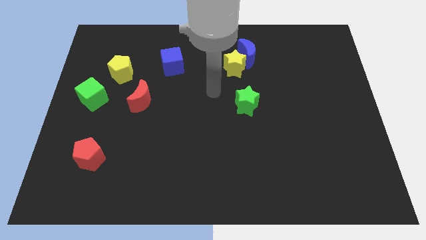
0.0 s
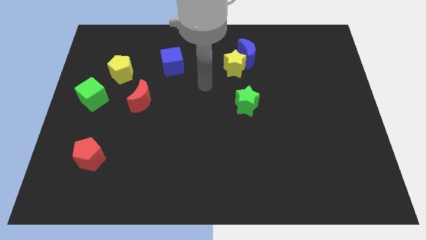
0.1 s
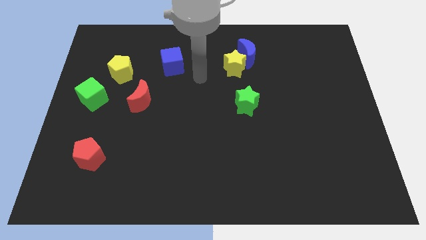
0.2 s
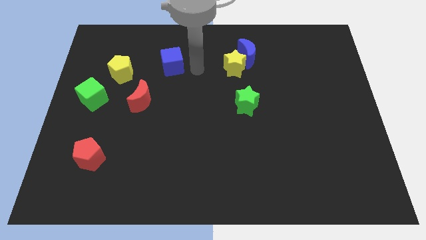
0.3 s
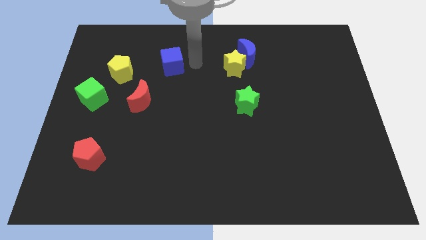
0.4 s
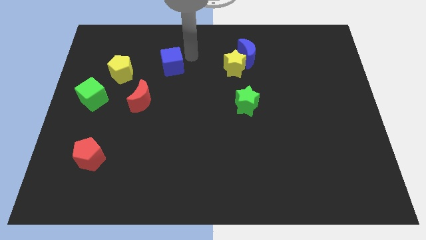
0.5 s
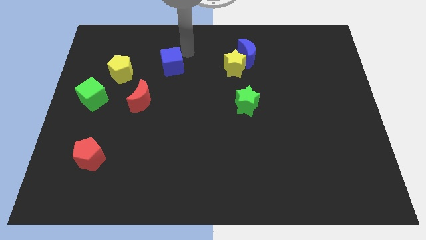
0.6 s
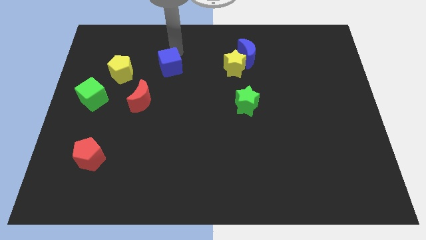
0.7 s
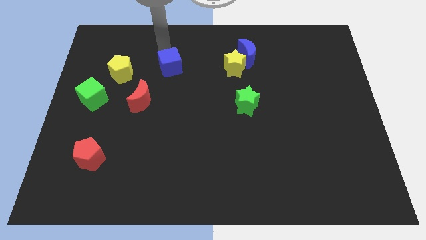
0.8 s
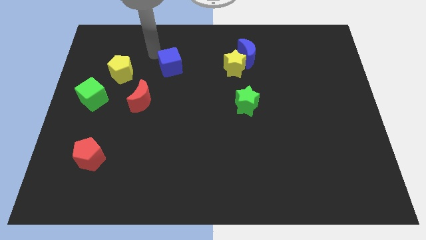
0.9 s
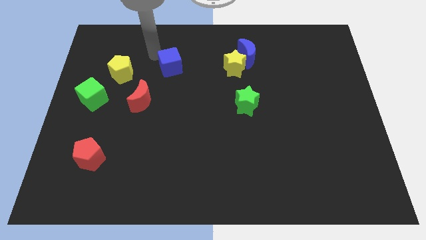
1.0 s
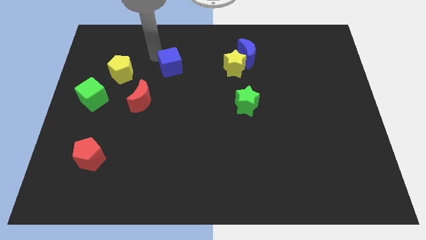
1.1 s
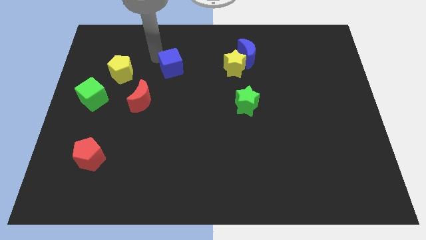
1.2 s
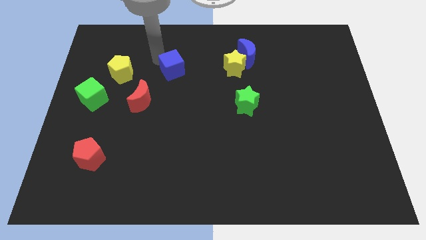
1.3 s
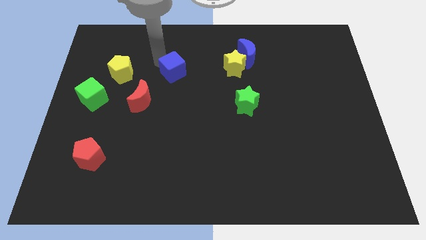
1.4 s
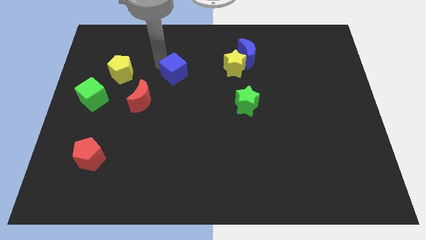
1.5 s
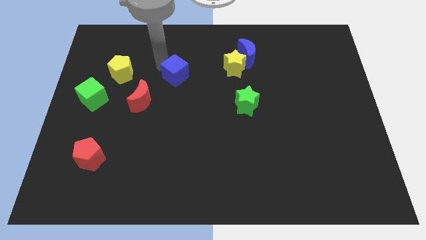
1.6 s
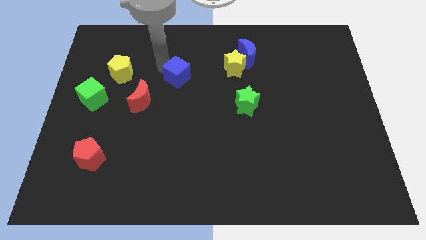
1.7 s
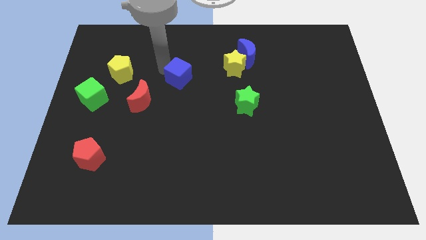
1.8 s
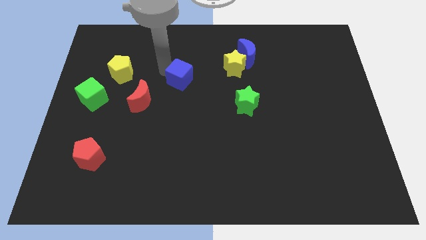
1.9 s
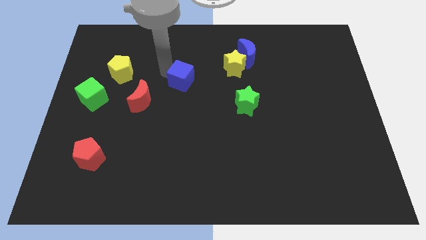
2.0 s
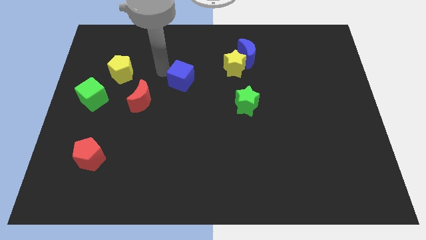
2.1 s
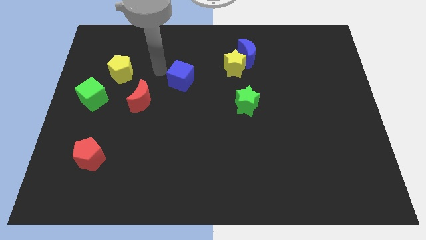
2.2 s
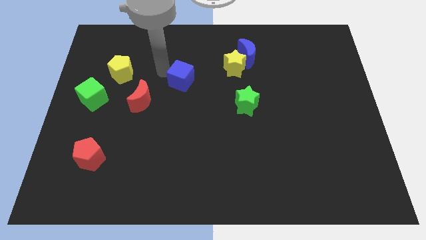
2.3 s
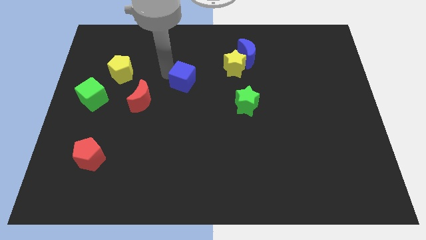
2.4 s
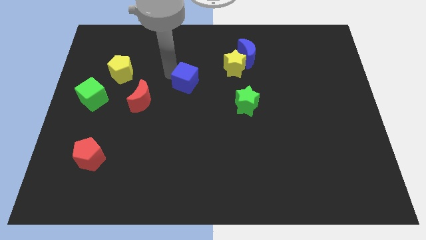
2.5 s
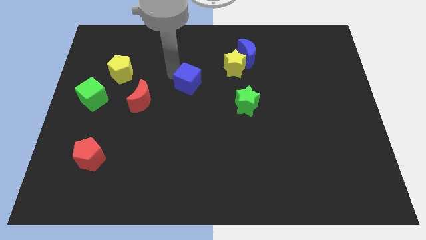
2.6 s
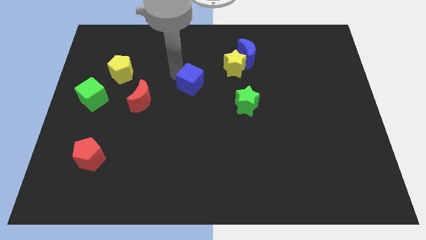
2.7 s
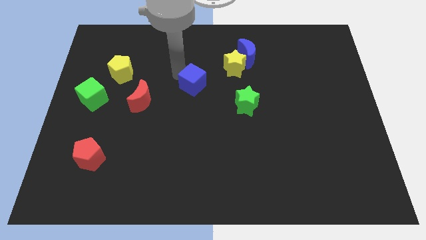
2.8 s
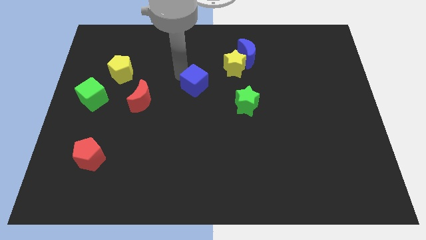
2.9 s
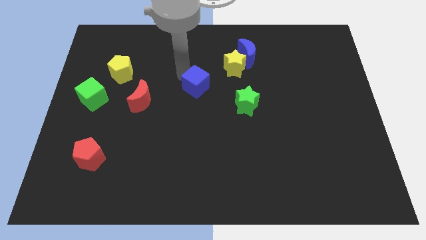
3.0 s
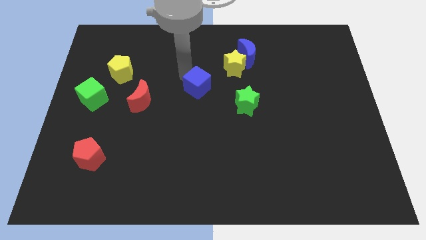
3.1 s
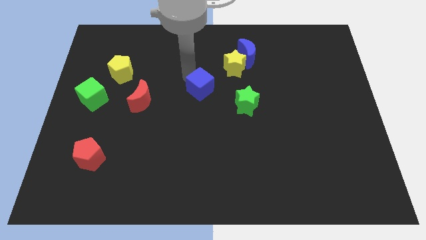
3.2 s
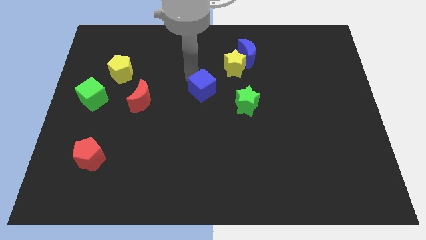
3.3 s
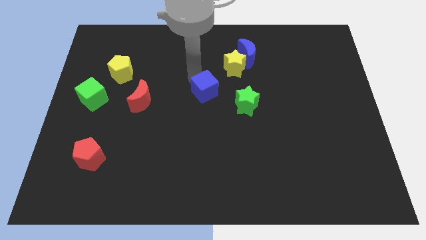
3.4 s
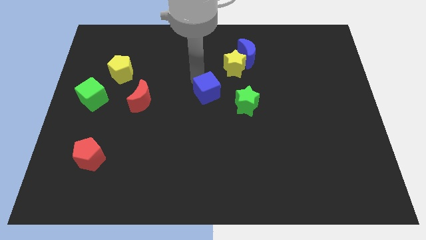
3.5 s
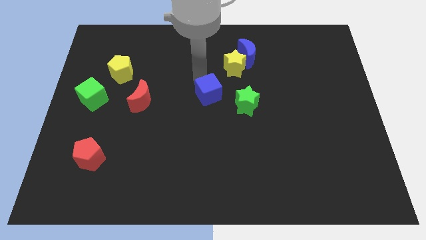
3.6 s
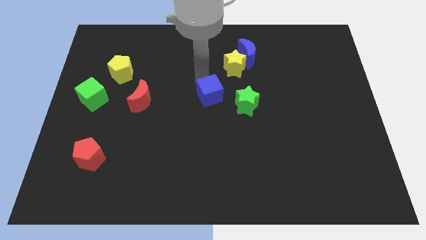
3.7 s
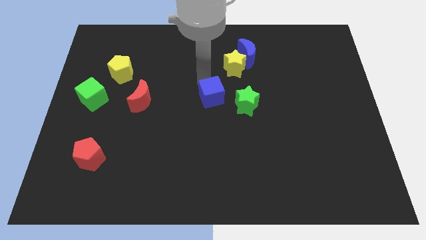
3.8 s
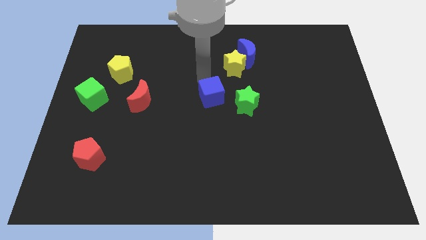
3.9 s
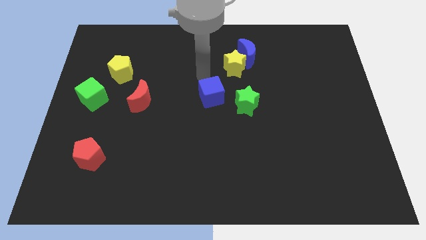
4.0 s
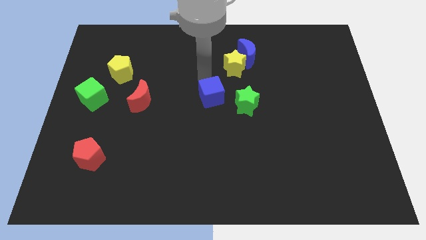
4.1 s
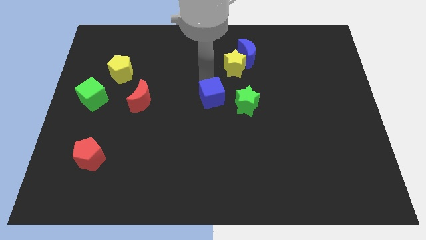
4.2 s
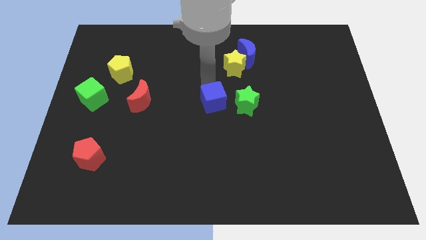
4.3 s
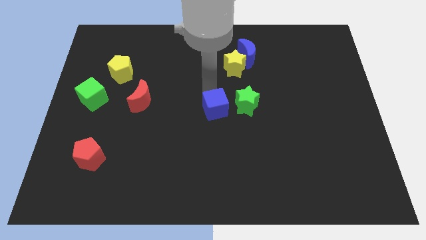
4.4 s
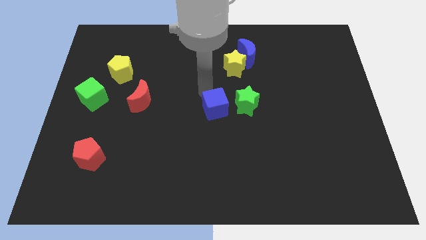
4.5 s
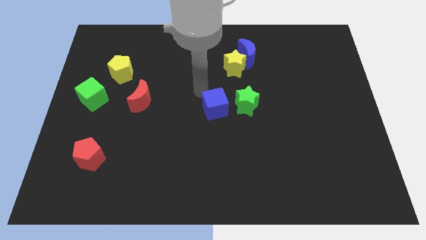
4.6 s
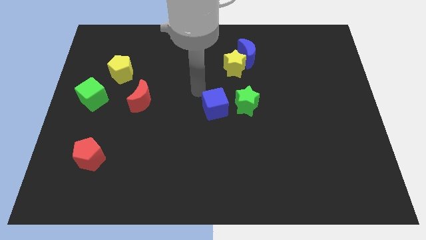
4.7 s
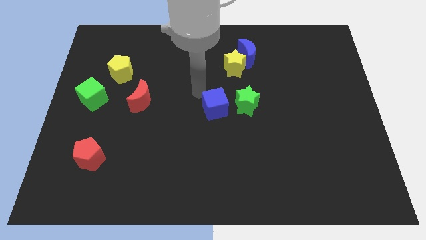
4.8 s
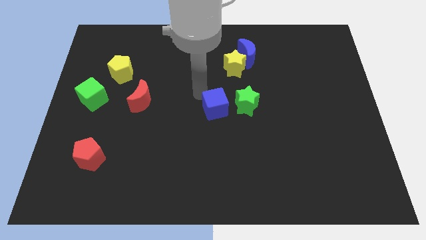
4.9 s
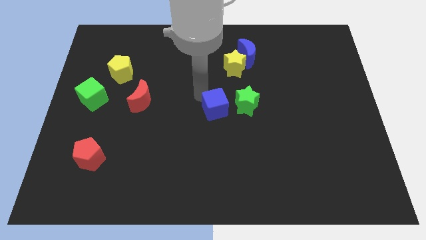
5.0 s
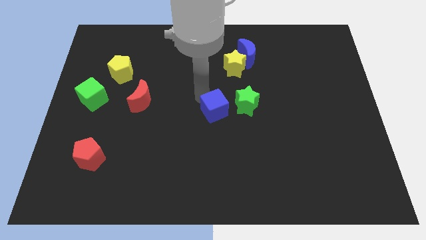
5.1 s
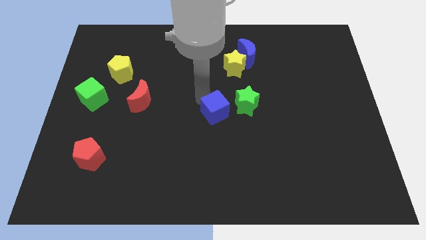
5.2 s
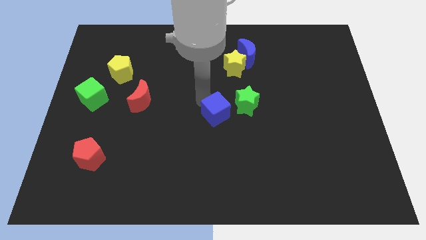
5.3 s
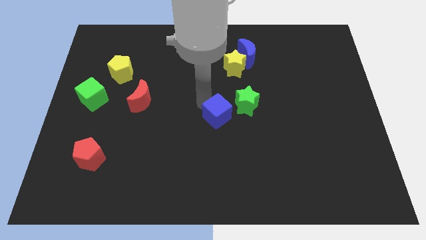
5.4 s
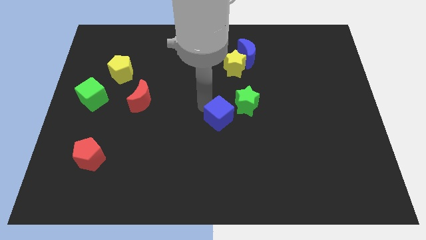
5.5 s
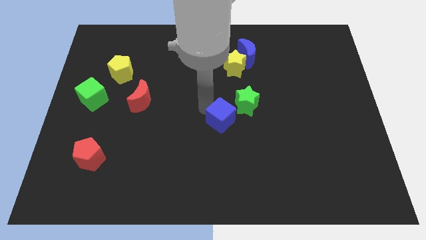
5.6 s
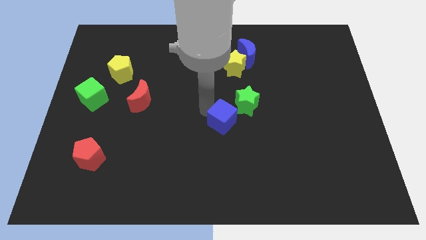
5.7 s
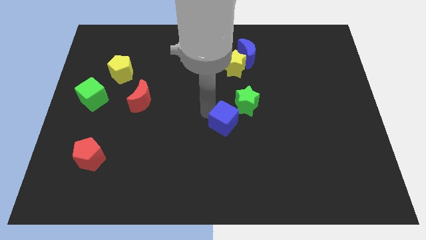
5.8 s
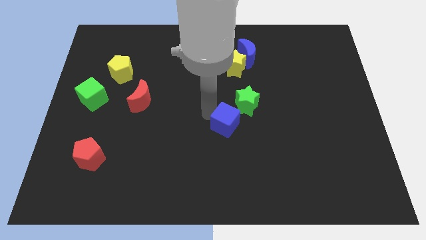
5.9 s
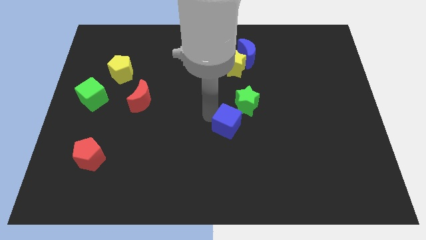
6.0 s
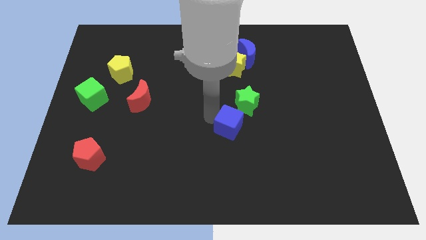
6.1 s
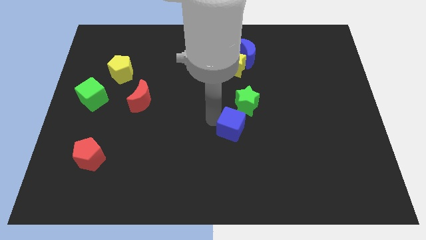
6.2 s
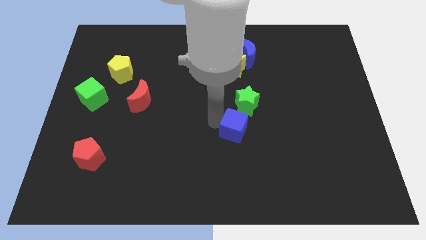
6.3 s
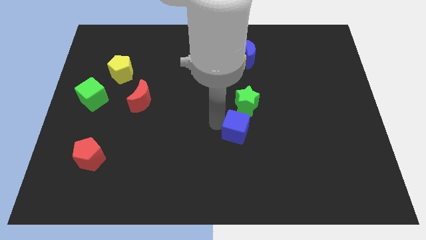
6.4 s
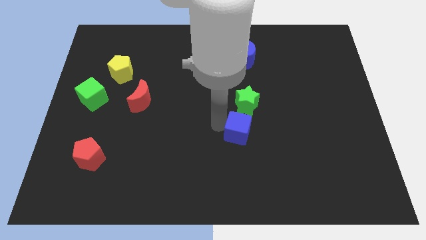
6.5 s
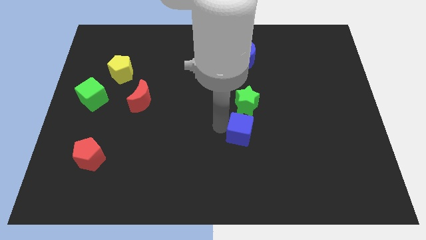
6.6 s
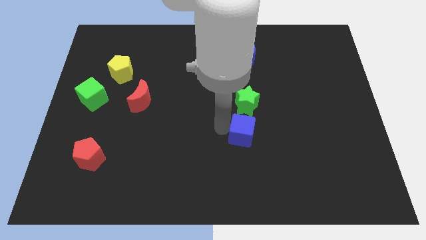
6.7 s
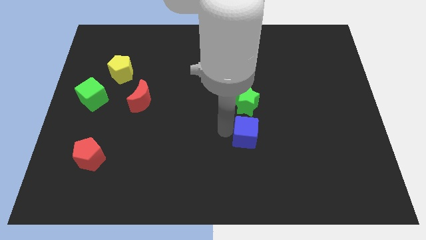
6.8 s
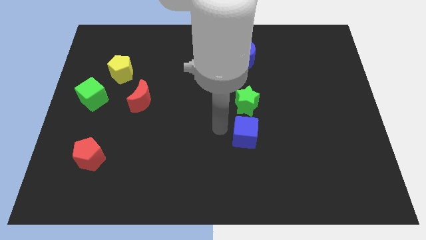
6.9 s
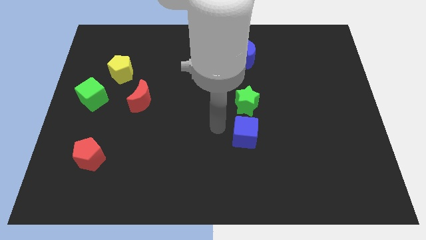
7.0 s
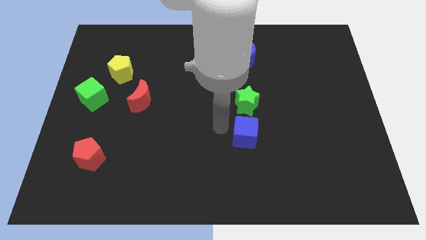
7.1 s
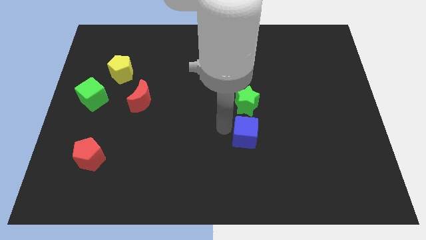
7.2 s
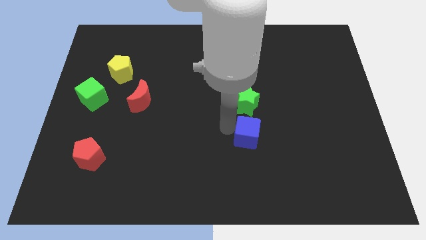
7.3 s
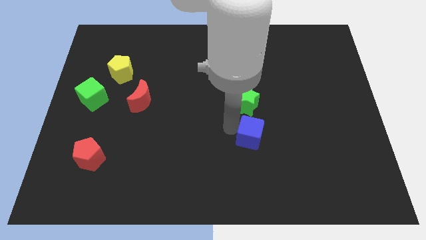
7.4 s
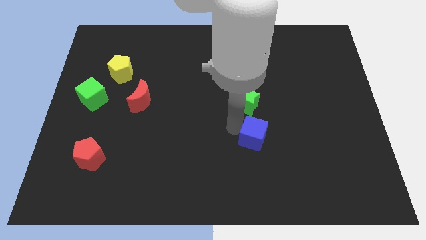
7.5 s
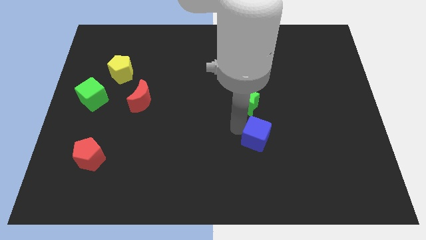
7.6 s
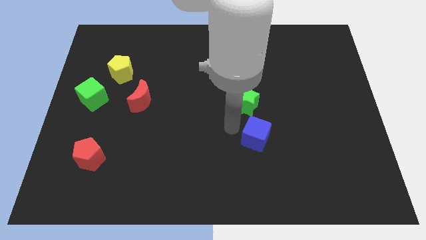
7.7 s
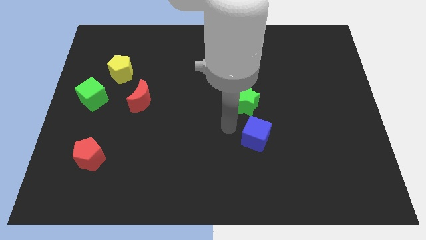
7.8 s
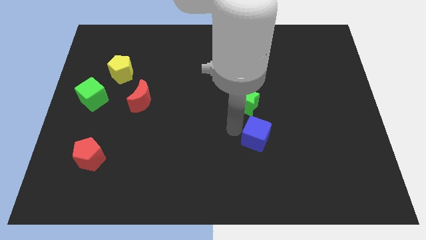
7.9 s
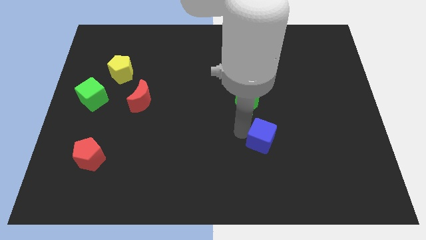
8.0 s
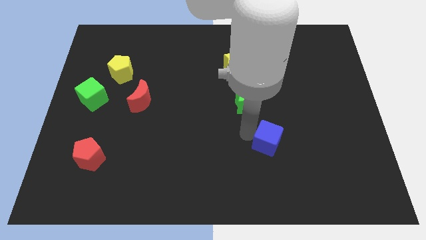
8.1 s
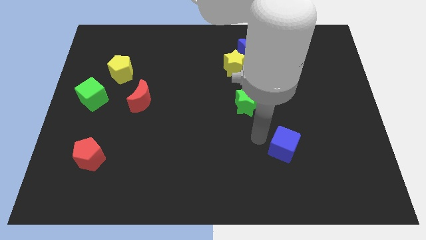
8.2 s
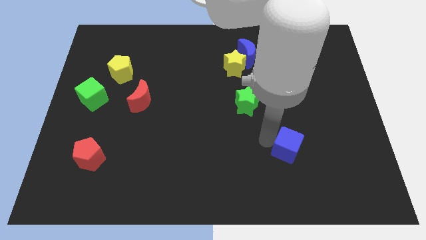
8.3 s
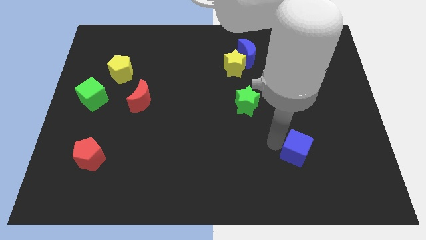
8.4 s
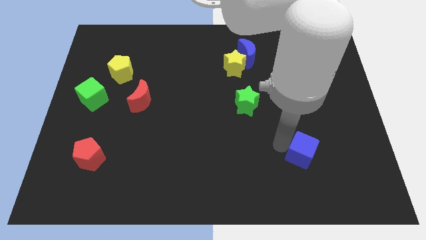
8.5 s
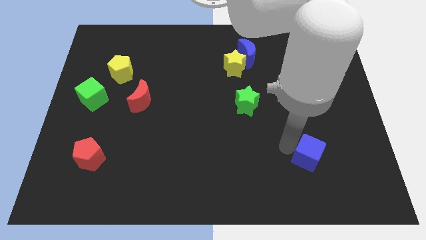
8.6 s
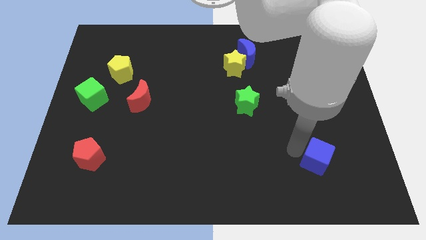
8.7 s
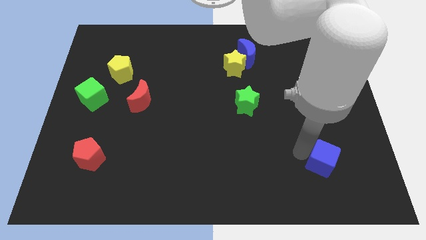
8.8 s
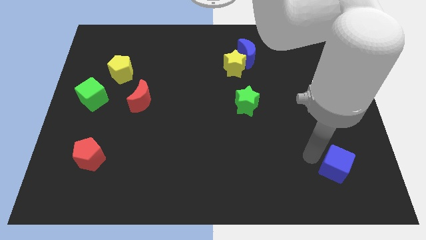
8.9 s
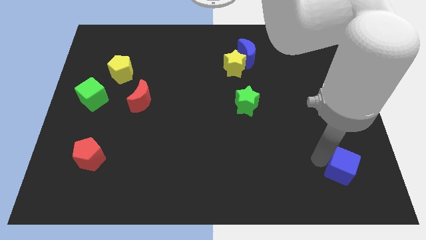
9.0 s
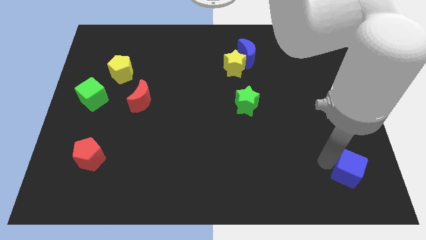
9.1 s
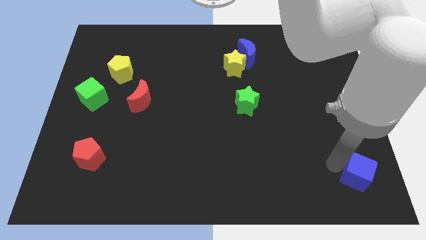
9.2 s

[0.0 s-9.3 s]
slide the blue cube to the lower right corner
